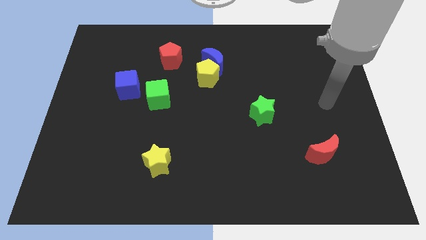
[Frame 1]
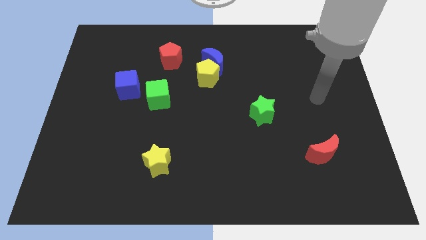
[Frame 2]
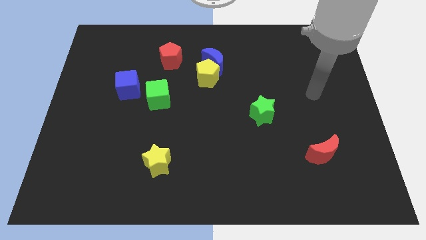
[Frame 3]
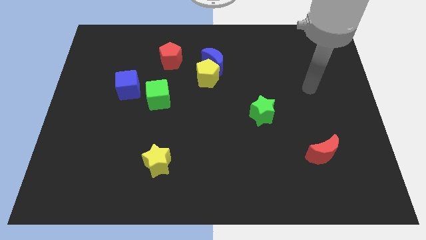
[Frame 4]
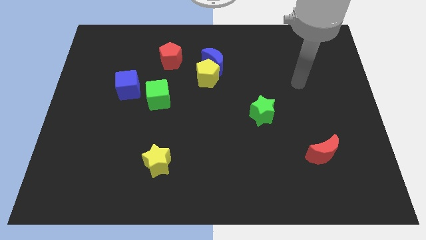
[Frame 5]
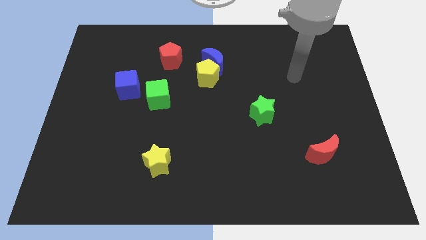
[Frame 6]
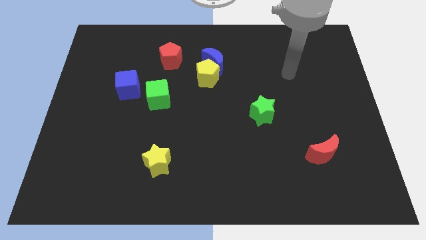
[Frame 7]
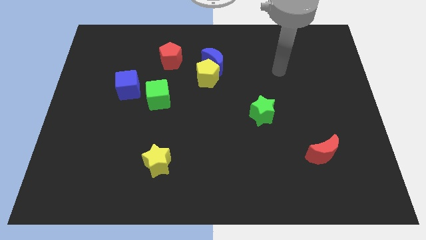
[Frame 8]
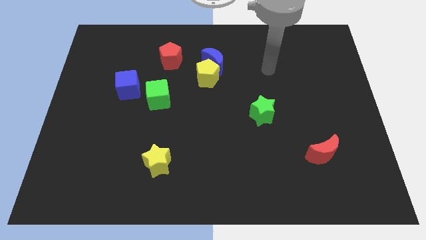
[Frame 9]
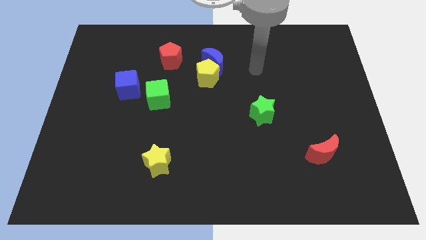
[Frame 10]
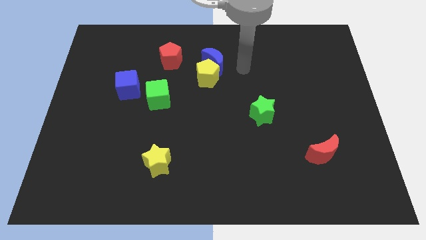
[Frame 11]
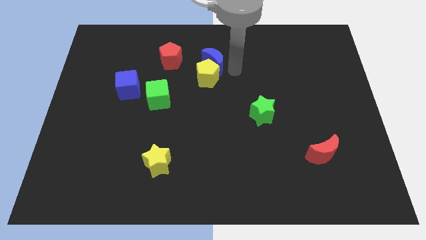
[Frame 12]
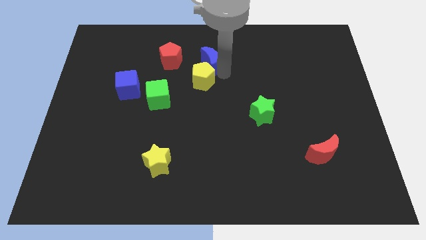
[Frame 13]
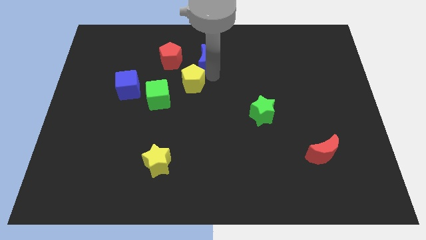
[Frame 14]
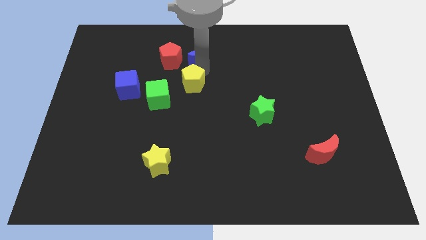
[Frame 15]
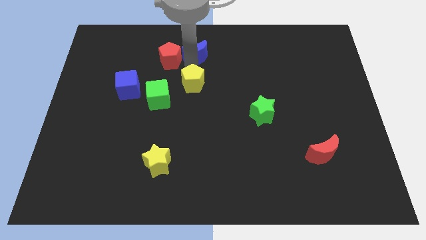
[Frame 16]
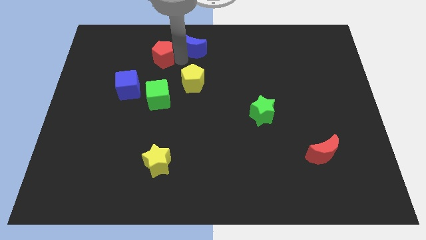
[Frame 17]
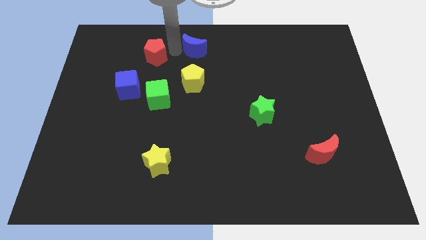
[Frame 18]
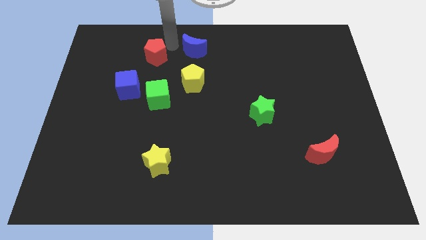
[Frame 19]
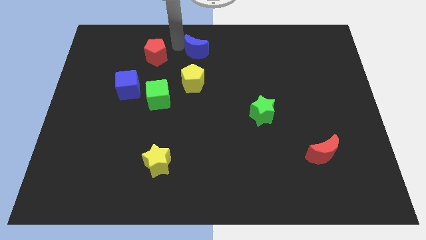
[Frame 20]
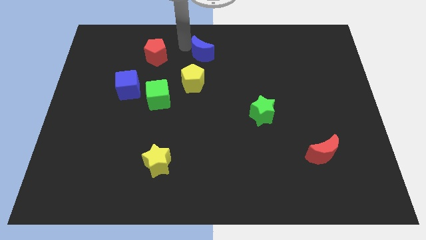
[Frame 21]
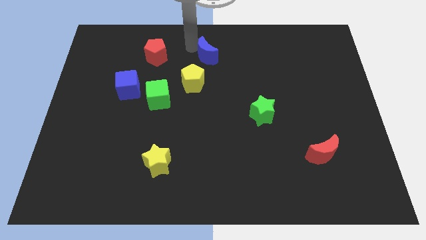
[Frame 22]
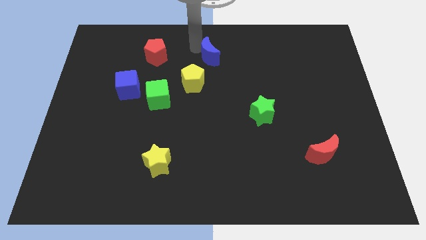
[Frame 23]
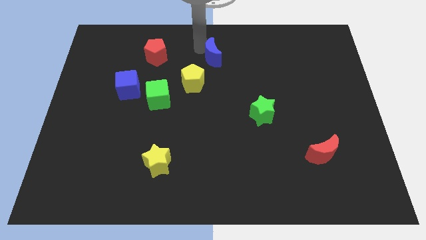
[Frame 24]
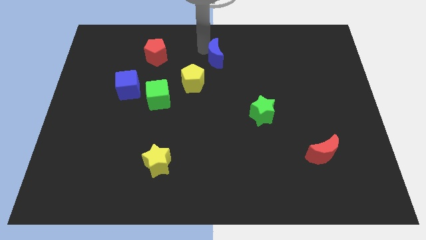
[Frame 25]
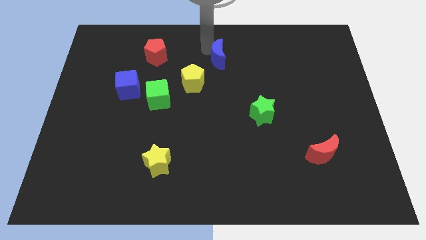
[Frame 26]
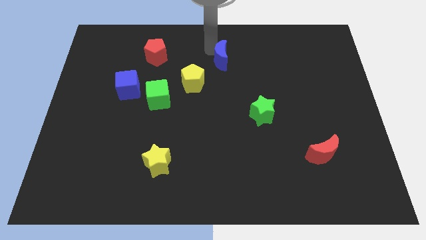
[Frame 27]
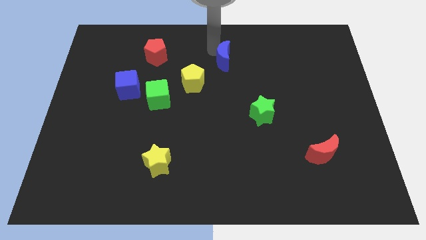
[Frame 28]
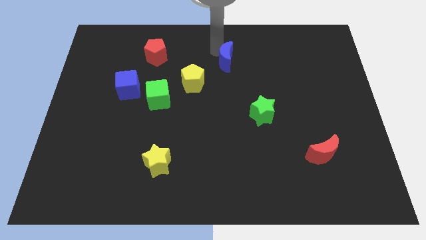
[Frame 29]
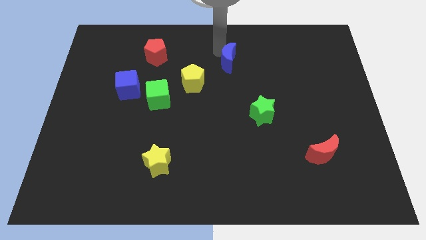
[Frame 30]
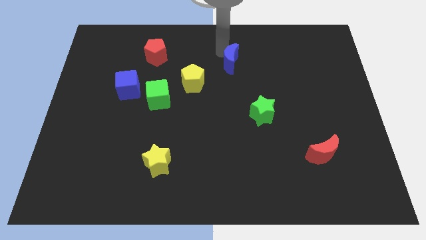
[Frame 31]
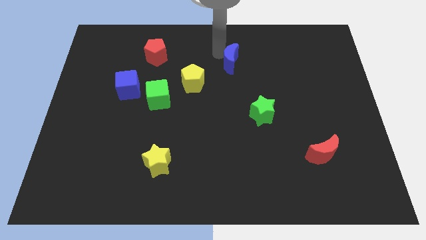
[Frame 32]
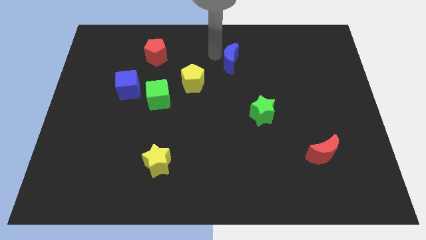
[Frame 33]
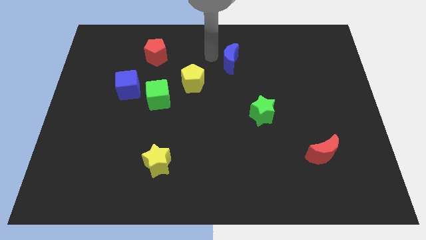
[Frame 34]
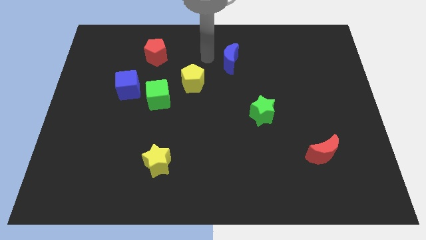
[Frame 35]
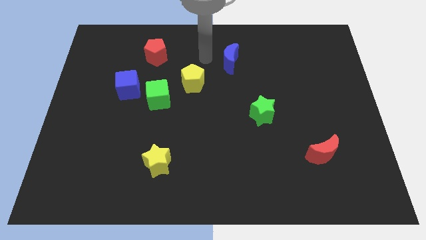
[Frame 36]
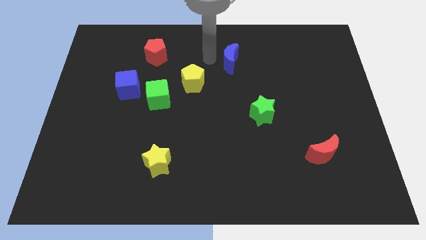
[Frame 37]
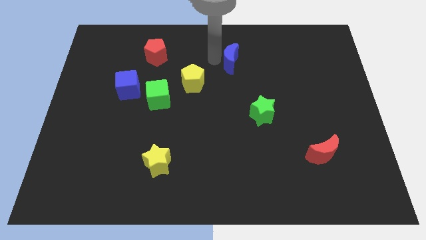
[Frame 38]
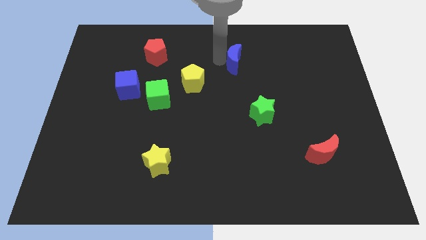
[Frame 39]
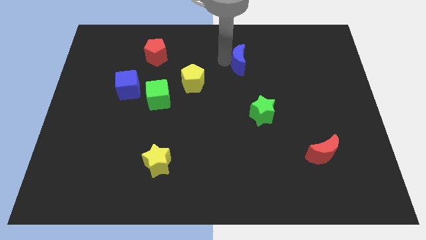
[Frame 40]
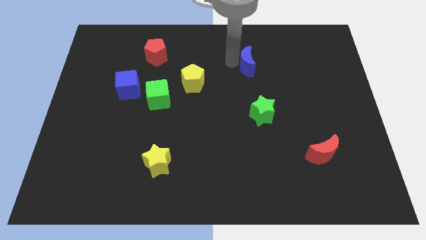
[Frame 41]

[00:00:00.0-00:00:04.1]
push the blue moon to the right slightly

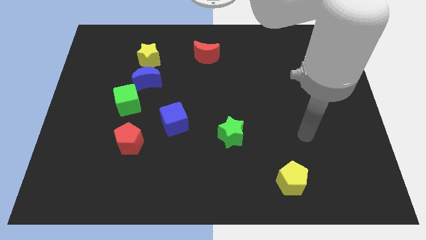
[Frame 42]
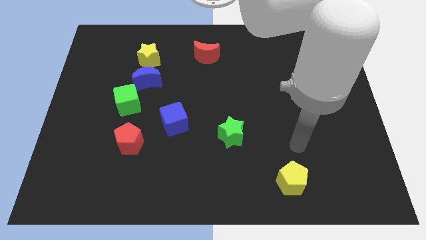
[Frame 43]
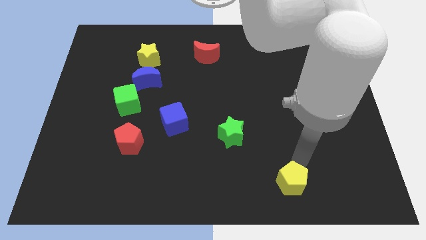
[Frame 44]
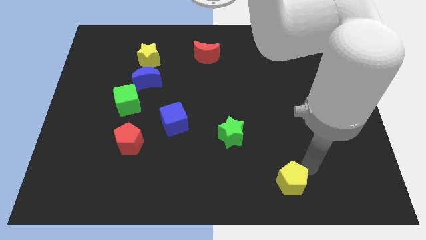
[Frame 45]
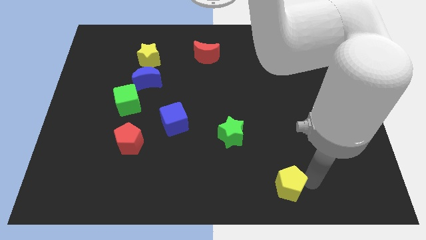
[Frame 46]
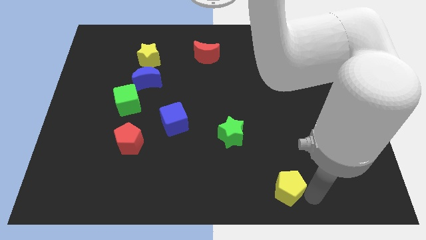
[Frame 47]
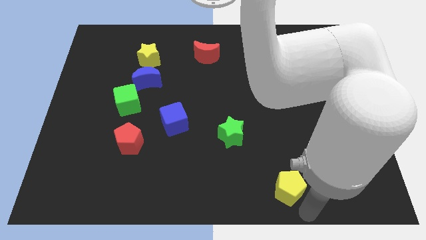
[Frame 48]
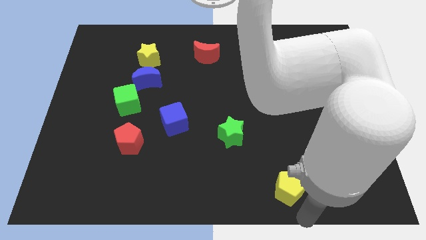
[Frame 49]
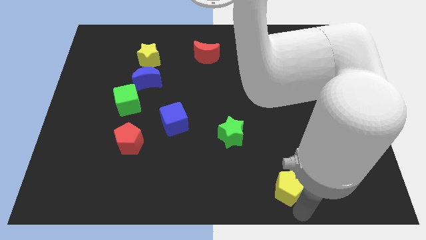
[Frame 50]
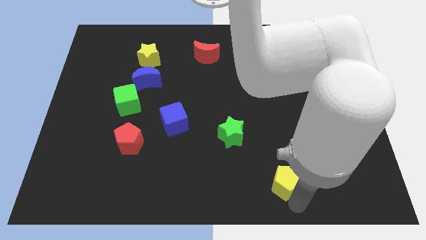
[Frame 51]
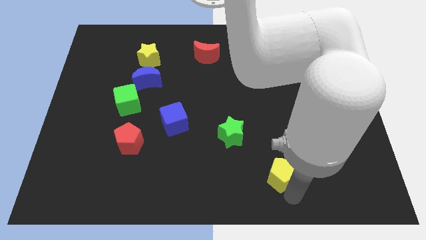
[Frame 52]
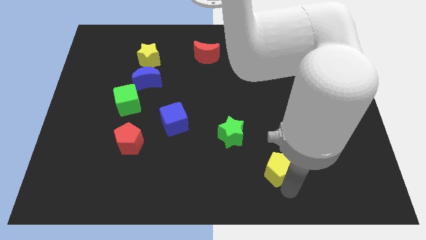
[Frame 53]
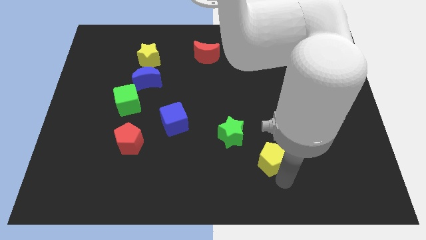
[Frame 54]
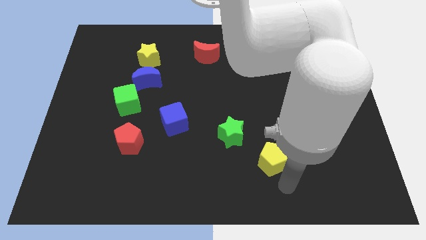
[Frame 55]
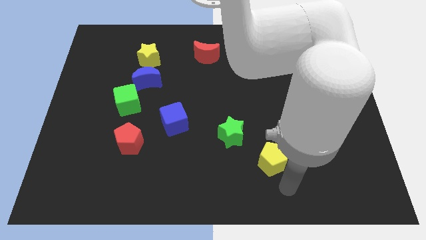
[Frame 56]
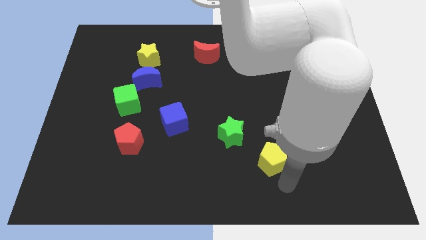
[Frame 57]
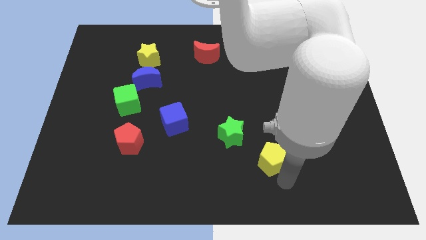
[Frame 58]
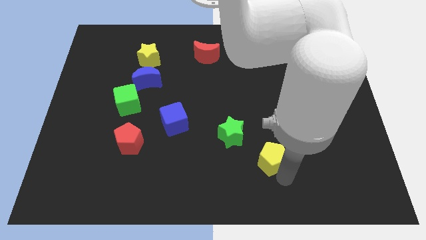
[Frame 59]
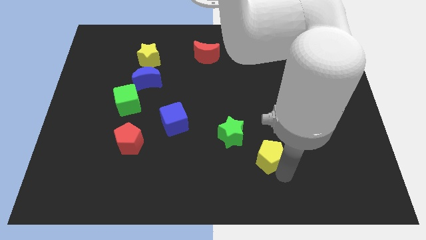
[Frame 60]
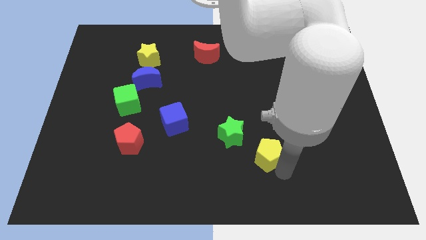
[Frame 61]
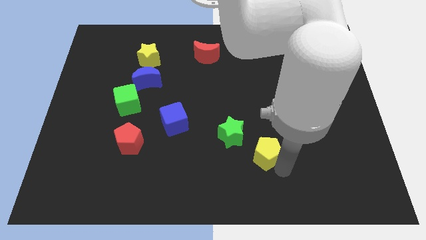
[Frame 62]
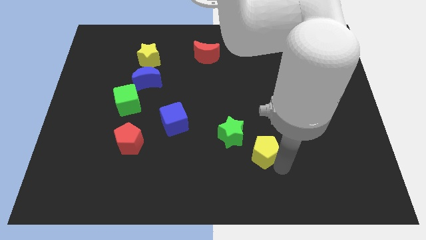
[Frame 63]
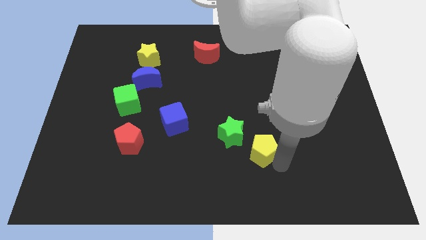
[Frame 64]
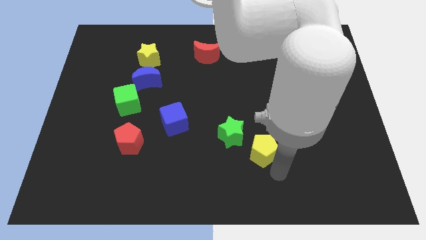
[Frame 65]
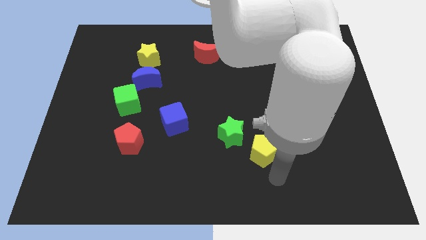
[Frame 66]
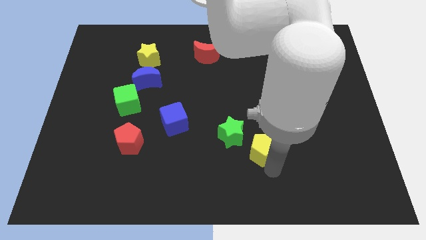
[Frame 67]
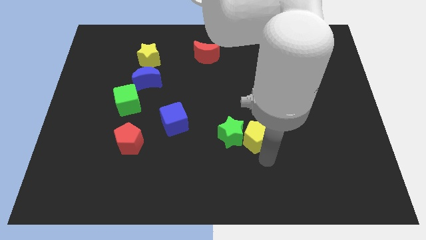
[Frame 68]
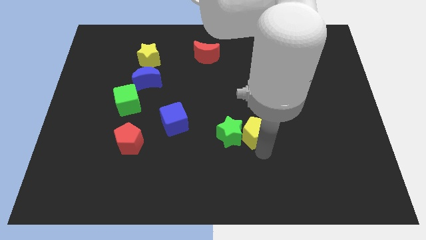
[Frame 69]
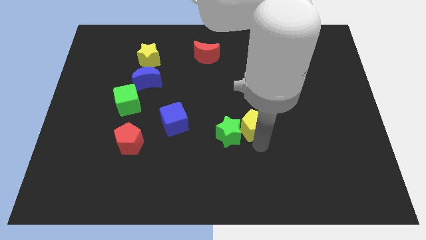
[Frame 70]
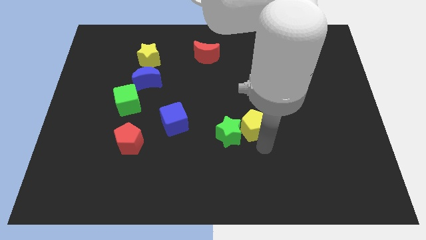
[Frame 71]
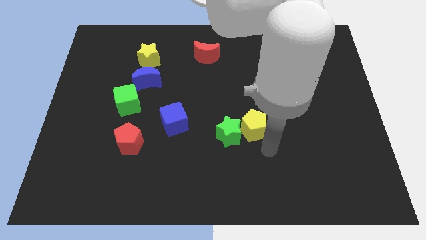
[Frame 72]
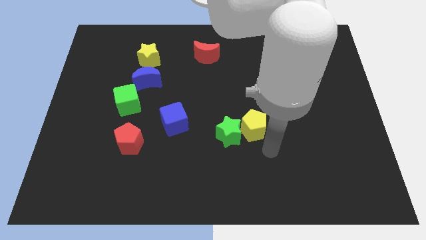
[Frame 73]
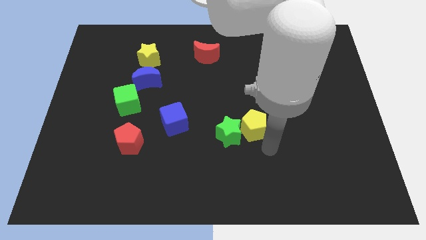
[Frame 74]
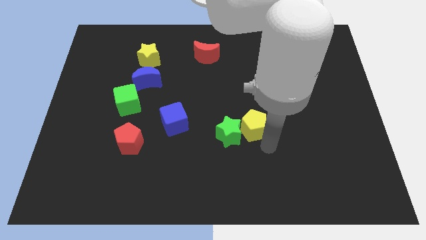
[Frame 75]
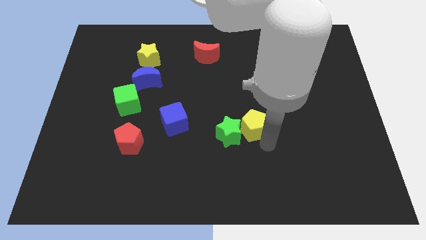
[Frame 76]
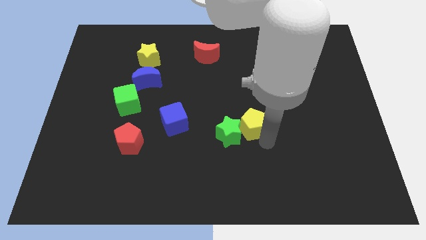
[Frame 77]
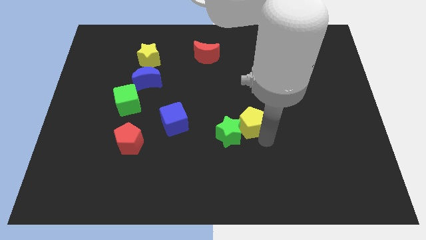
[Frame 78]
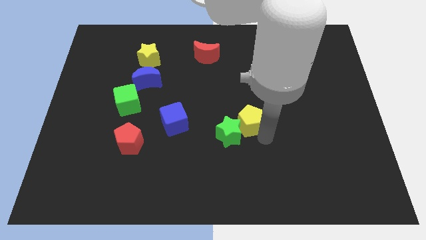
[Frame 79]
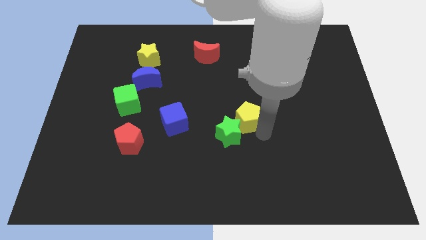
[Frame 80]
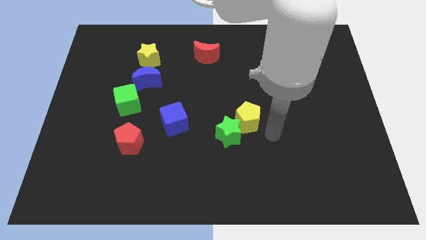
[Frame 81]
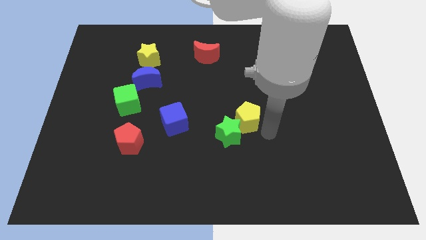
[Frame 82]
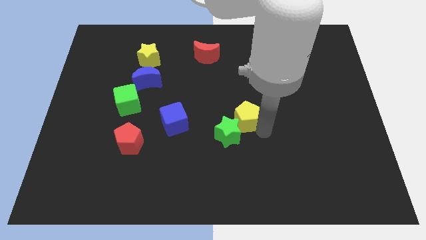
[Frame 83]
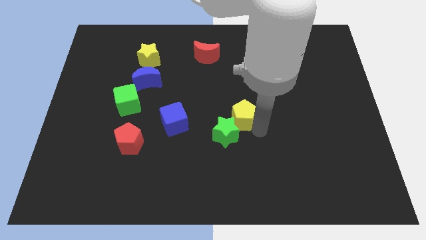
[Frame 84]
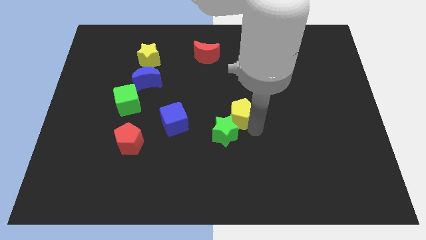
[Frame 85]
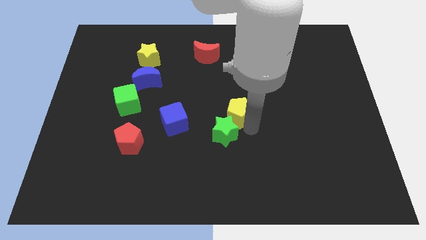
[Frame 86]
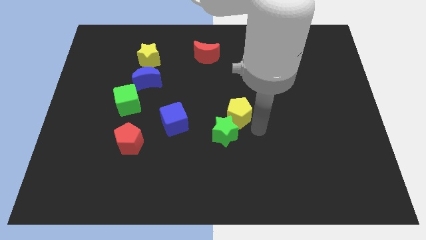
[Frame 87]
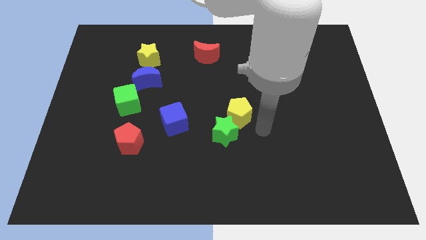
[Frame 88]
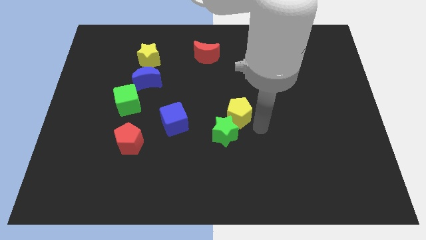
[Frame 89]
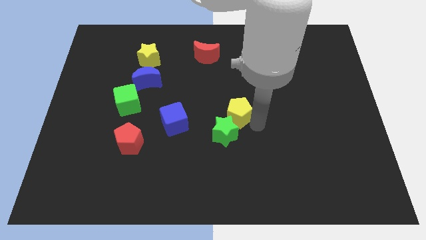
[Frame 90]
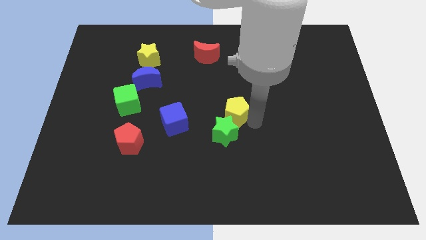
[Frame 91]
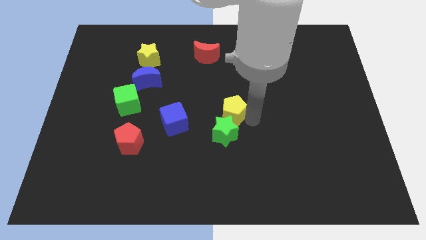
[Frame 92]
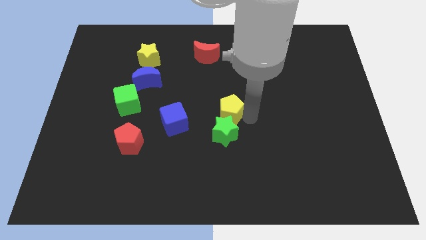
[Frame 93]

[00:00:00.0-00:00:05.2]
move the yellow pentagon up and to the left
